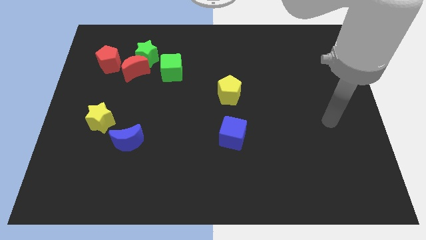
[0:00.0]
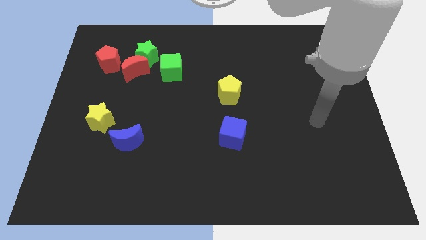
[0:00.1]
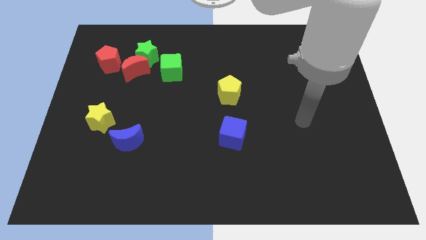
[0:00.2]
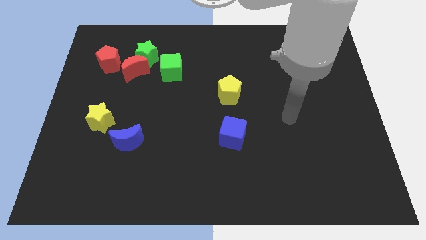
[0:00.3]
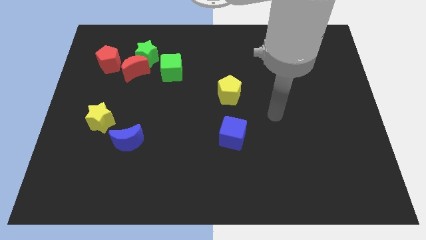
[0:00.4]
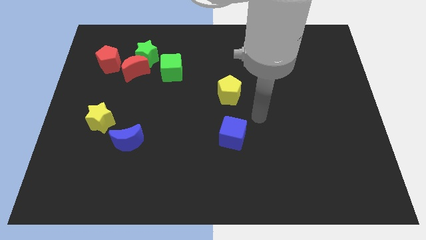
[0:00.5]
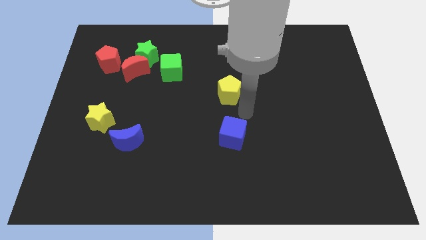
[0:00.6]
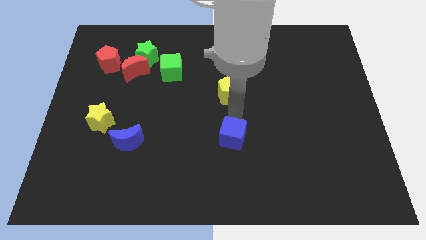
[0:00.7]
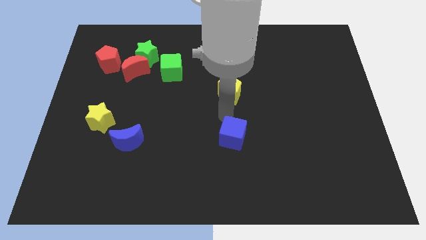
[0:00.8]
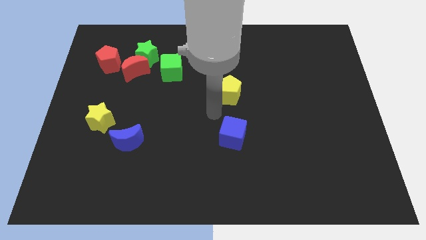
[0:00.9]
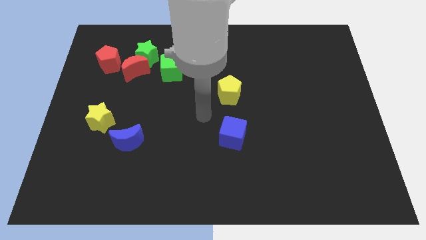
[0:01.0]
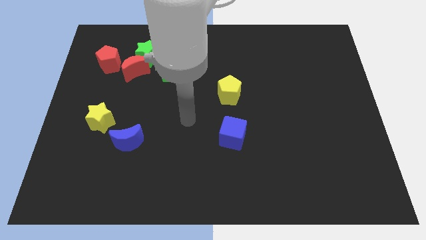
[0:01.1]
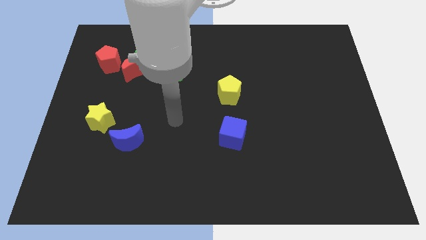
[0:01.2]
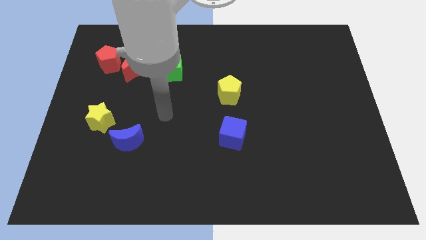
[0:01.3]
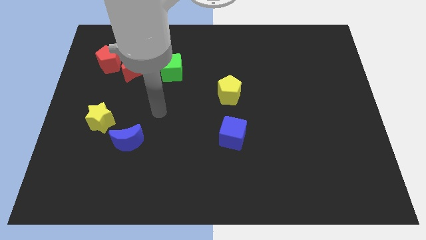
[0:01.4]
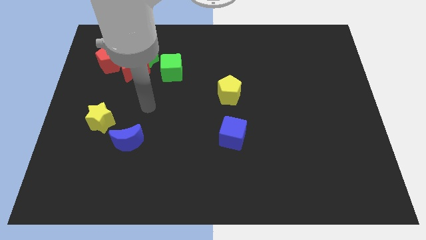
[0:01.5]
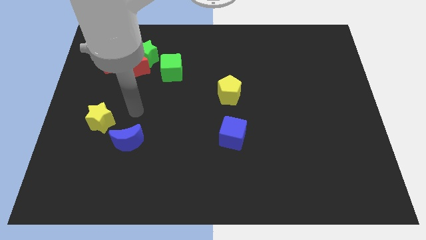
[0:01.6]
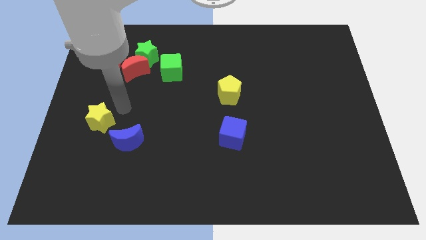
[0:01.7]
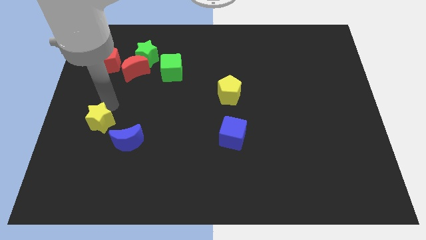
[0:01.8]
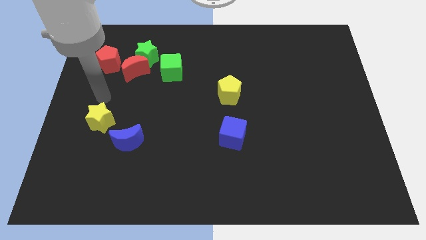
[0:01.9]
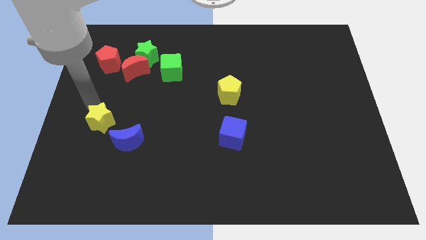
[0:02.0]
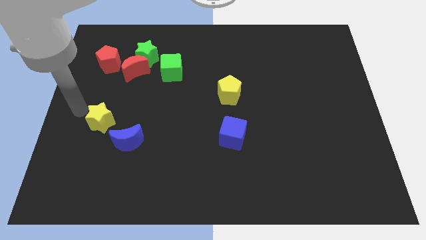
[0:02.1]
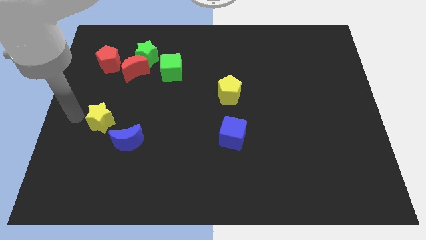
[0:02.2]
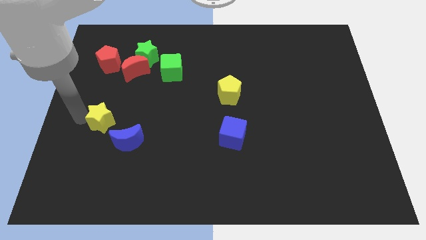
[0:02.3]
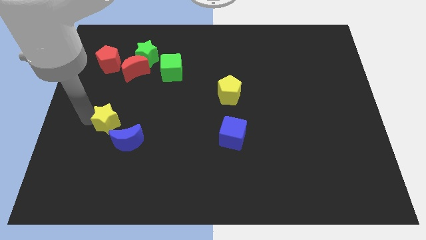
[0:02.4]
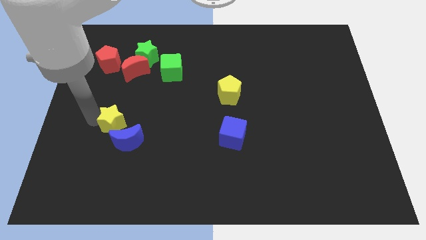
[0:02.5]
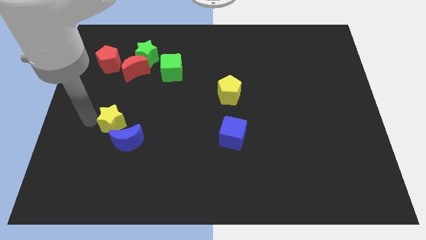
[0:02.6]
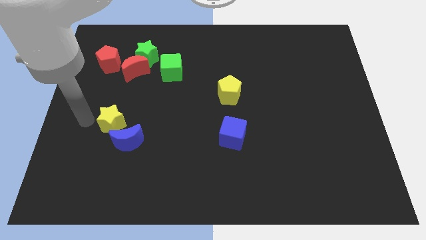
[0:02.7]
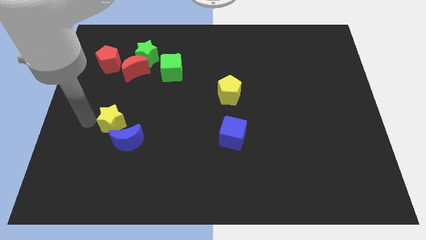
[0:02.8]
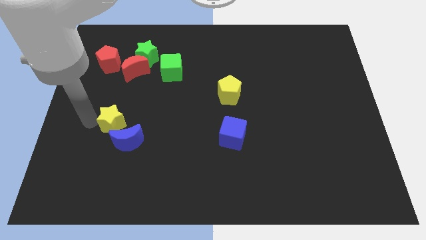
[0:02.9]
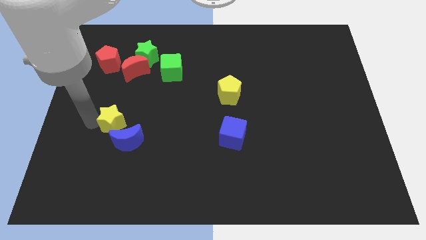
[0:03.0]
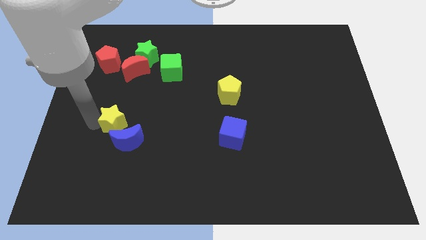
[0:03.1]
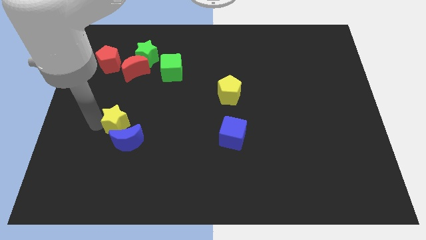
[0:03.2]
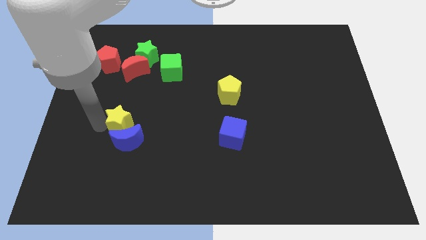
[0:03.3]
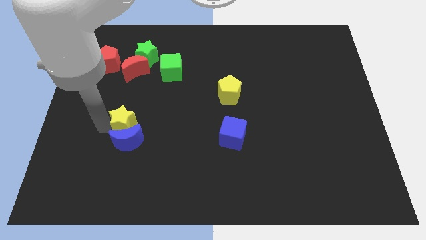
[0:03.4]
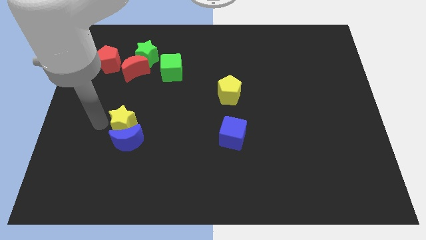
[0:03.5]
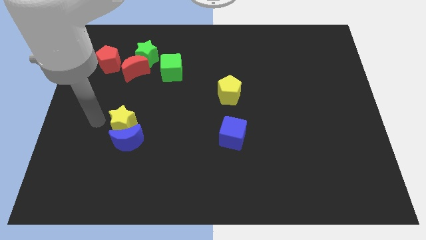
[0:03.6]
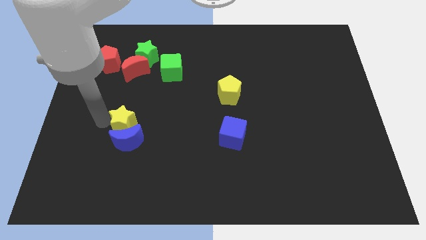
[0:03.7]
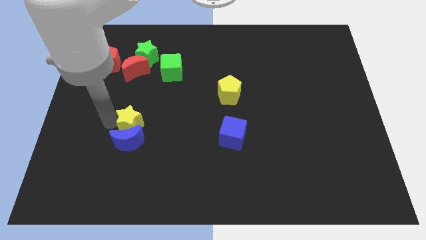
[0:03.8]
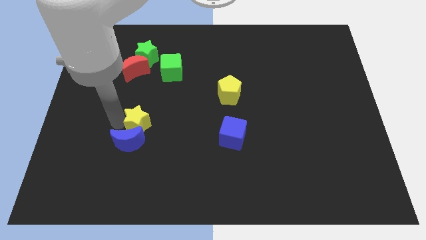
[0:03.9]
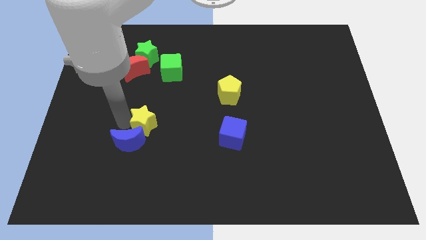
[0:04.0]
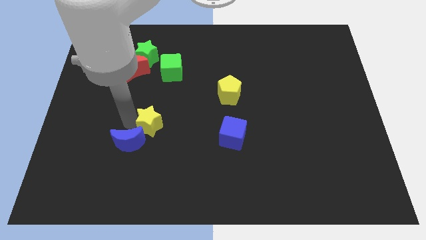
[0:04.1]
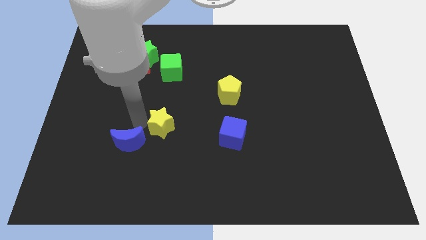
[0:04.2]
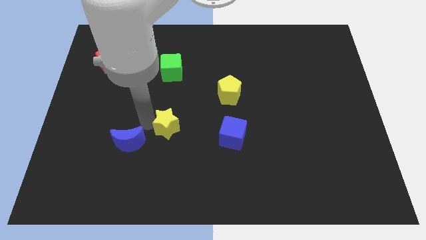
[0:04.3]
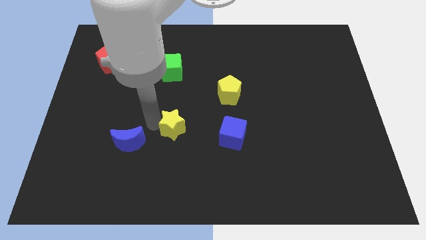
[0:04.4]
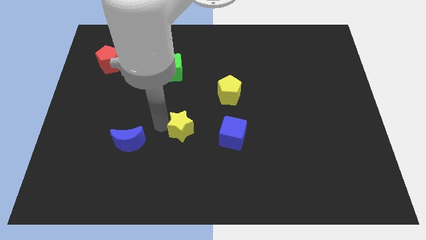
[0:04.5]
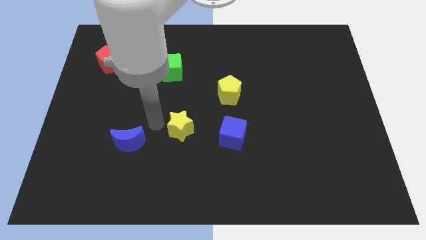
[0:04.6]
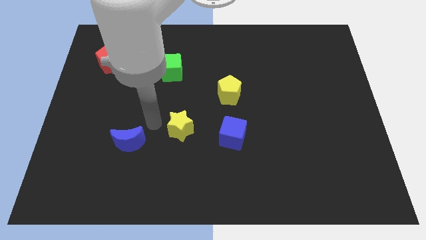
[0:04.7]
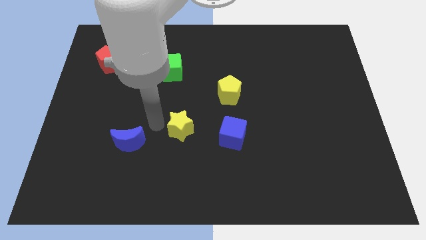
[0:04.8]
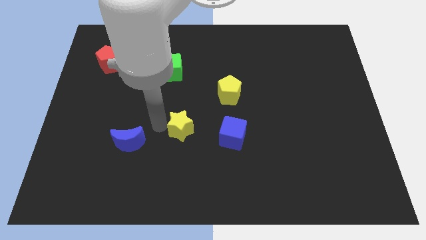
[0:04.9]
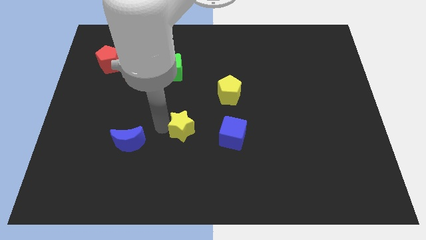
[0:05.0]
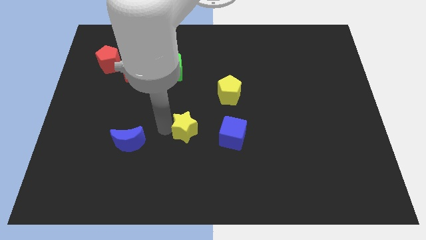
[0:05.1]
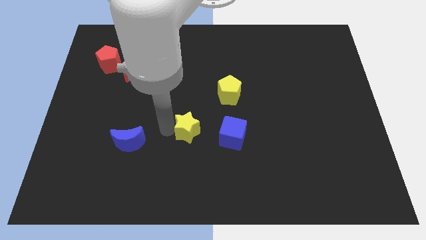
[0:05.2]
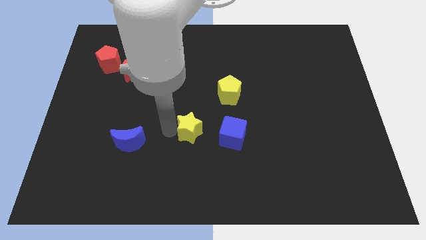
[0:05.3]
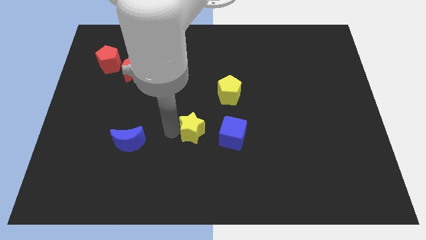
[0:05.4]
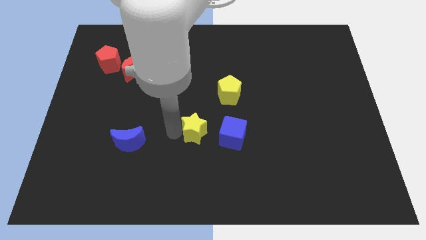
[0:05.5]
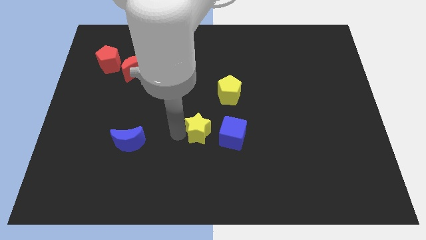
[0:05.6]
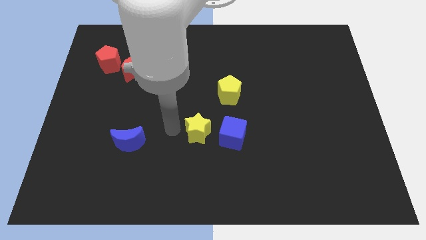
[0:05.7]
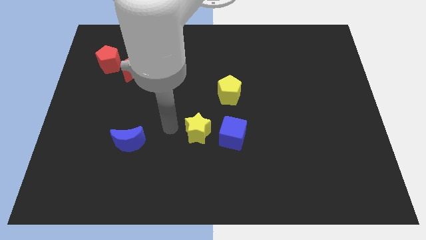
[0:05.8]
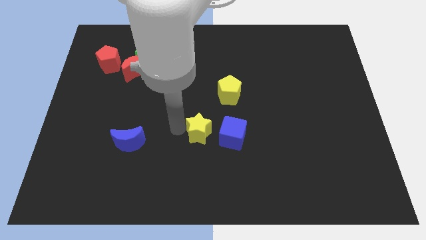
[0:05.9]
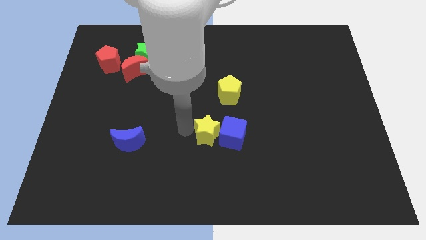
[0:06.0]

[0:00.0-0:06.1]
push the yellow star next to the blue cube

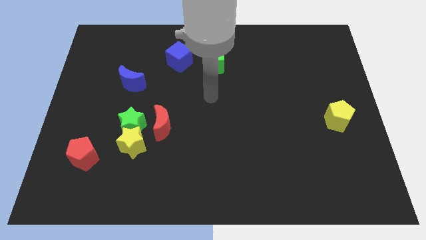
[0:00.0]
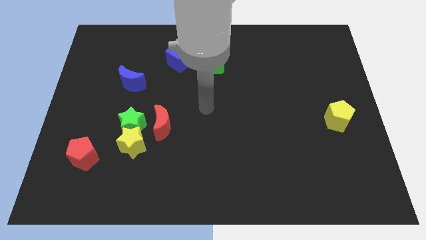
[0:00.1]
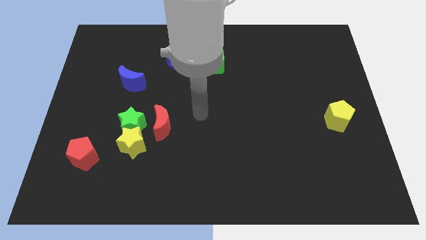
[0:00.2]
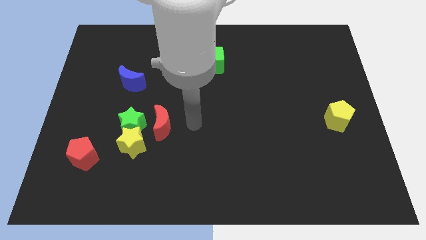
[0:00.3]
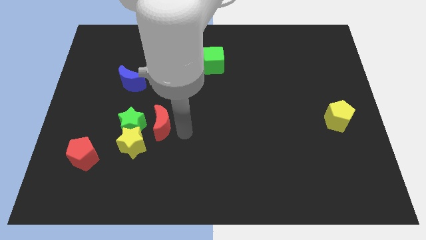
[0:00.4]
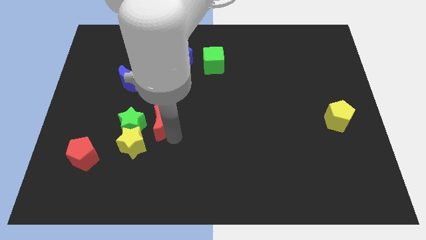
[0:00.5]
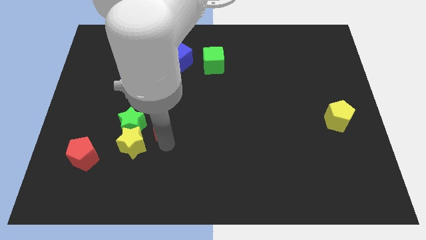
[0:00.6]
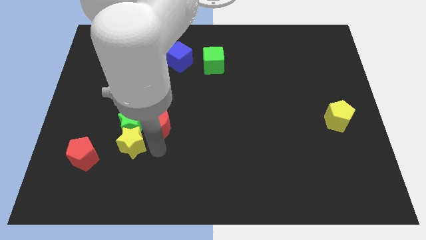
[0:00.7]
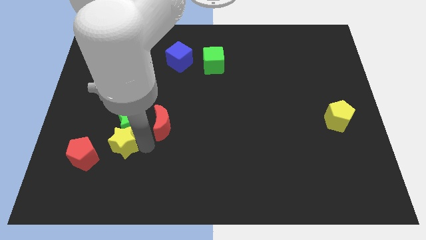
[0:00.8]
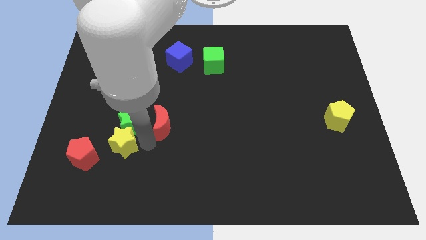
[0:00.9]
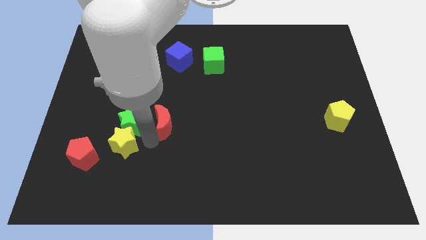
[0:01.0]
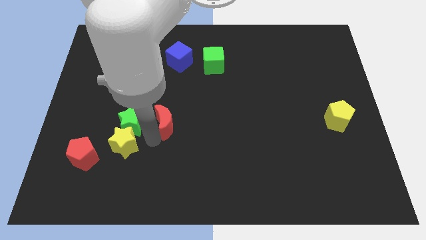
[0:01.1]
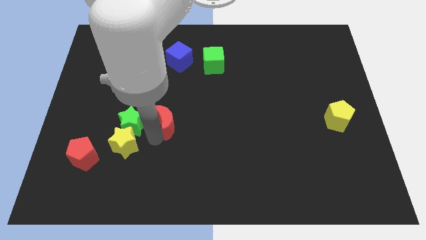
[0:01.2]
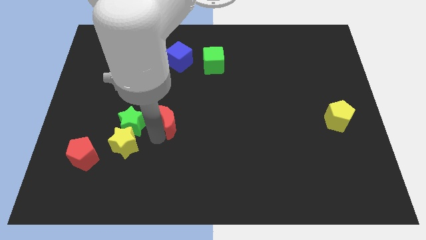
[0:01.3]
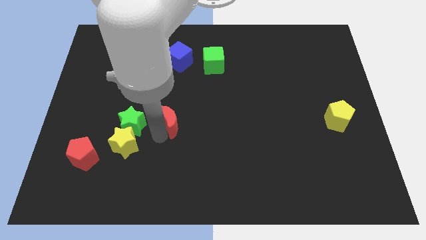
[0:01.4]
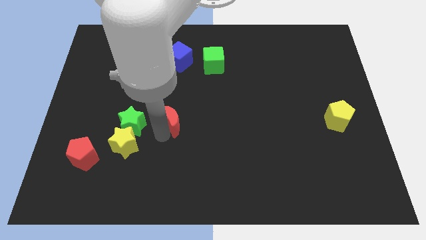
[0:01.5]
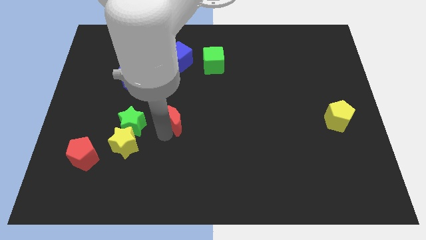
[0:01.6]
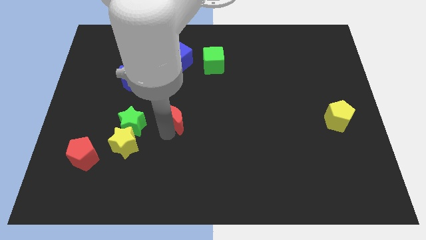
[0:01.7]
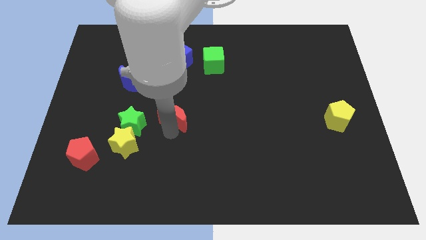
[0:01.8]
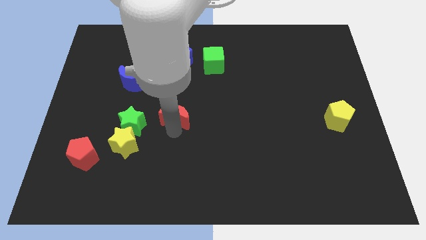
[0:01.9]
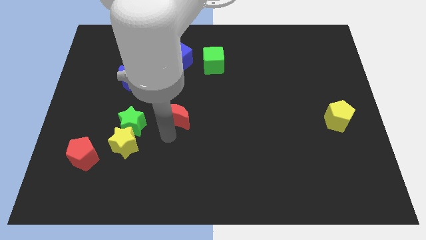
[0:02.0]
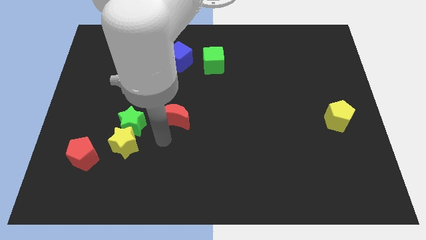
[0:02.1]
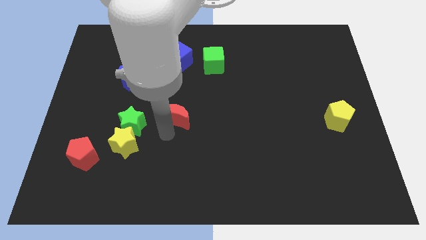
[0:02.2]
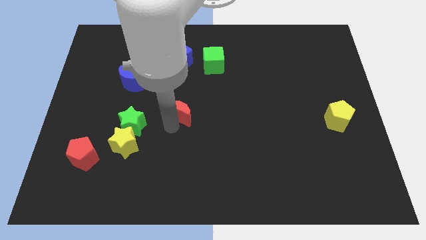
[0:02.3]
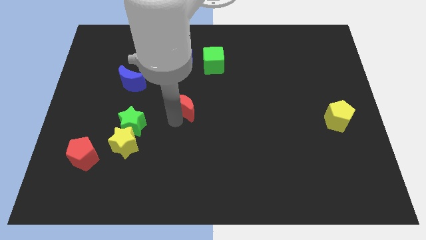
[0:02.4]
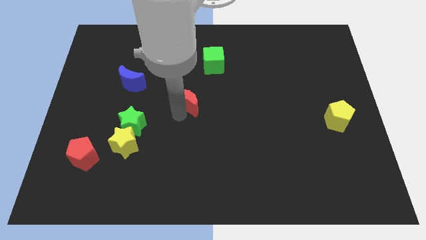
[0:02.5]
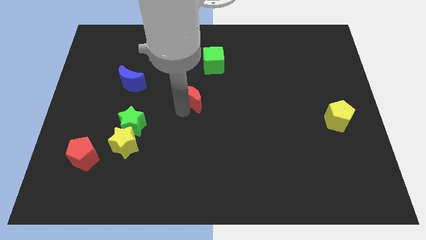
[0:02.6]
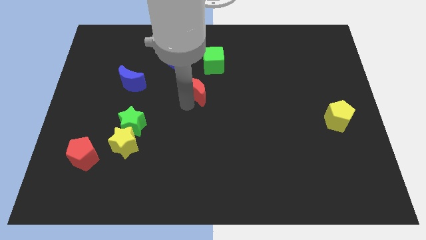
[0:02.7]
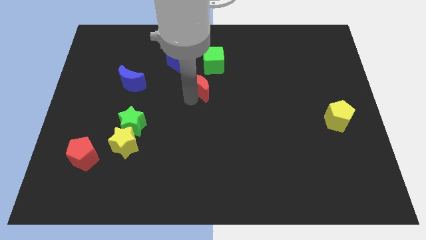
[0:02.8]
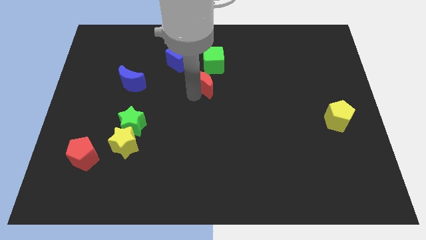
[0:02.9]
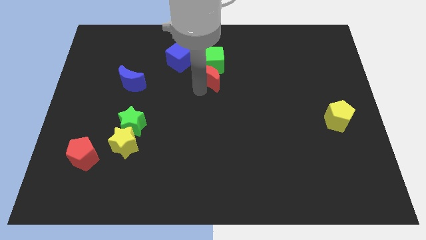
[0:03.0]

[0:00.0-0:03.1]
put the red moon to the green cube
